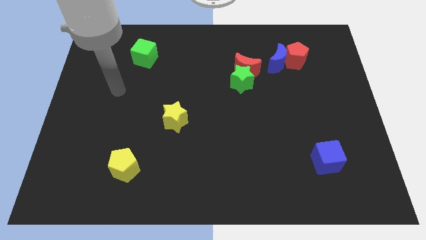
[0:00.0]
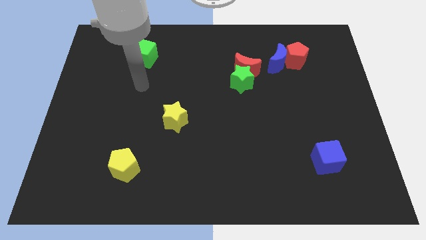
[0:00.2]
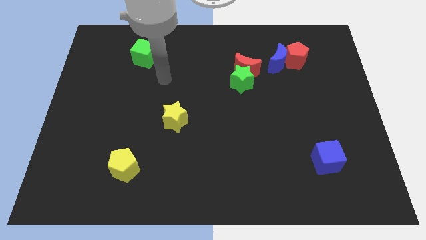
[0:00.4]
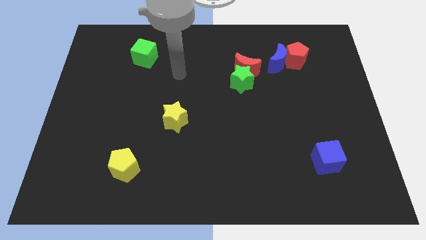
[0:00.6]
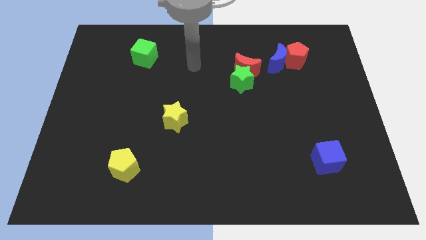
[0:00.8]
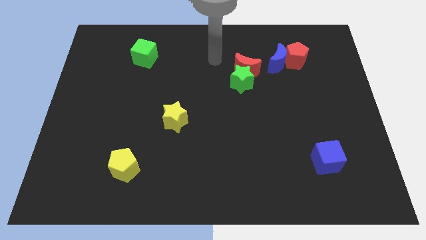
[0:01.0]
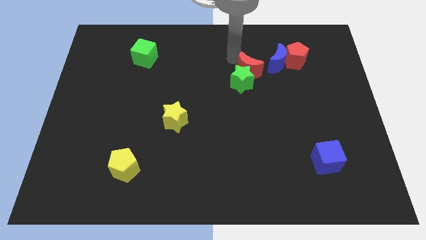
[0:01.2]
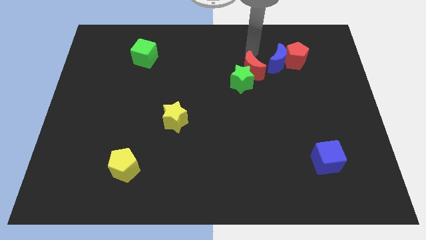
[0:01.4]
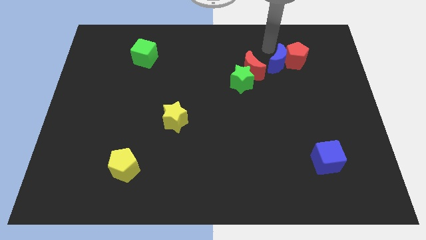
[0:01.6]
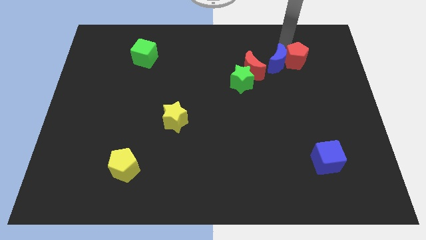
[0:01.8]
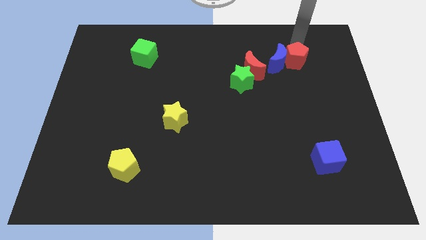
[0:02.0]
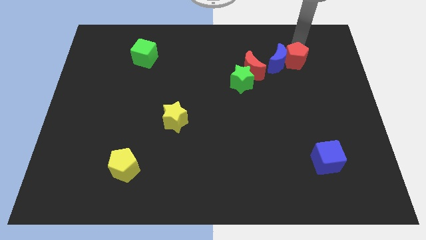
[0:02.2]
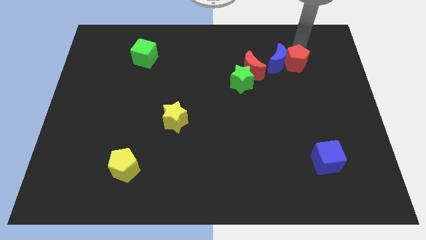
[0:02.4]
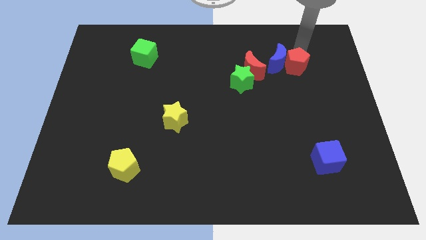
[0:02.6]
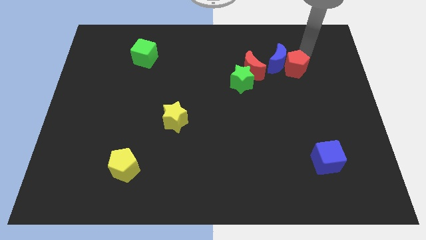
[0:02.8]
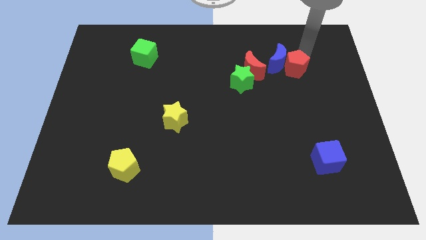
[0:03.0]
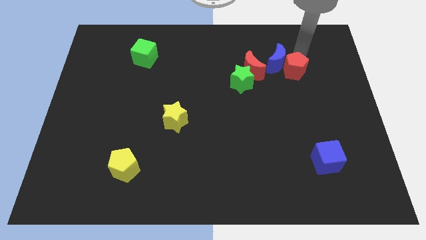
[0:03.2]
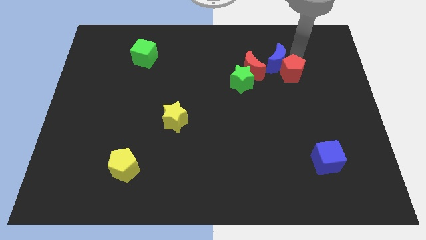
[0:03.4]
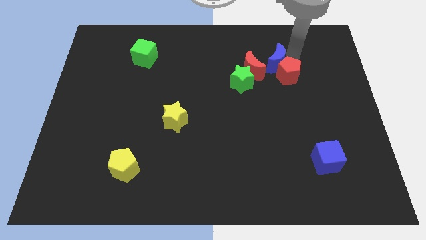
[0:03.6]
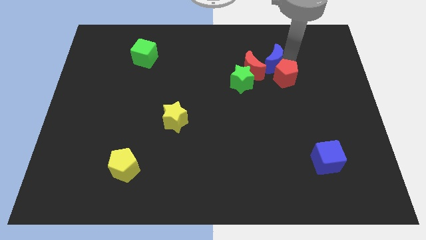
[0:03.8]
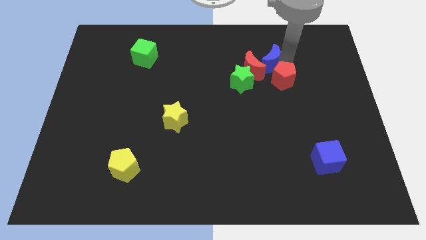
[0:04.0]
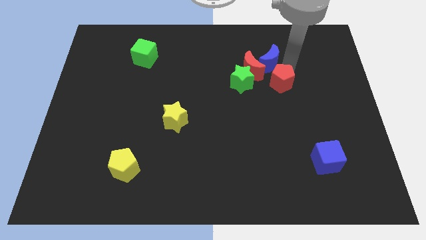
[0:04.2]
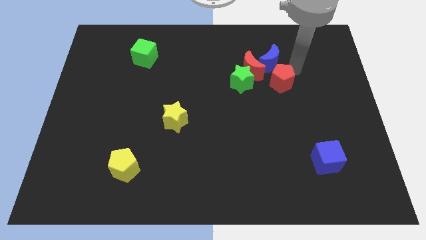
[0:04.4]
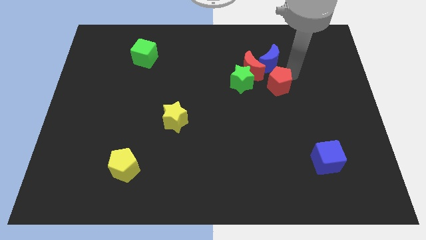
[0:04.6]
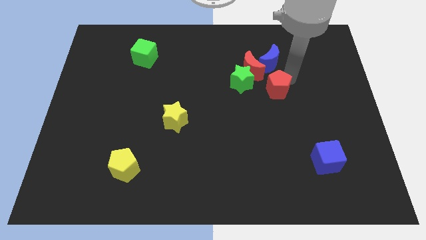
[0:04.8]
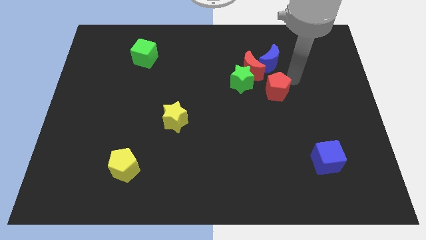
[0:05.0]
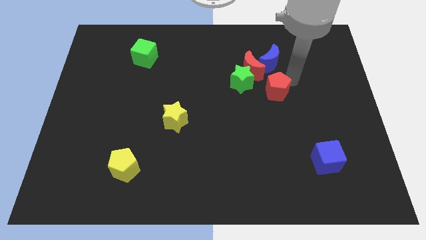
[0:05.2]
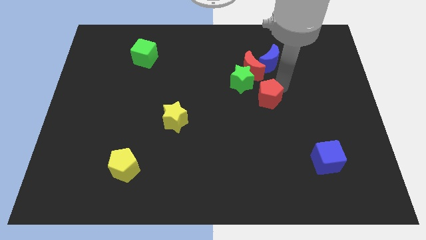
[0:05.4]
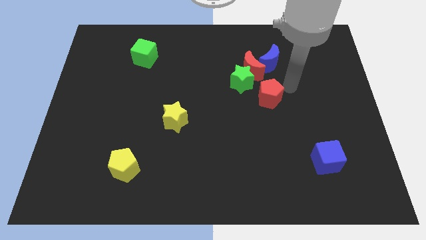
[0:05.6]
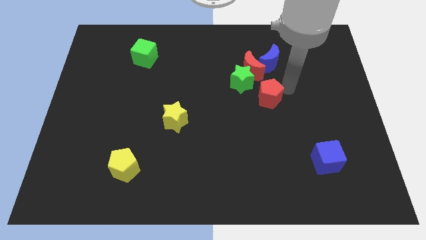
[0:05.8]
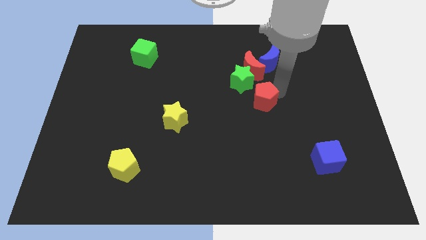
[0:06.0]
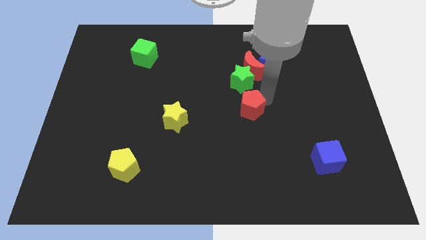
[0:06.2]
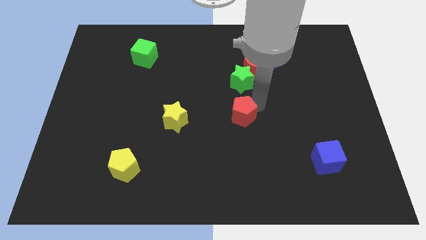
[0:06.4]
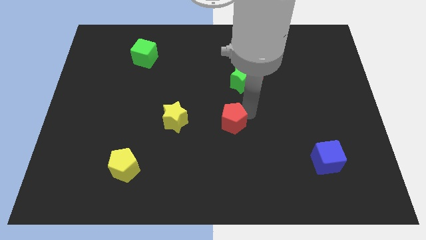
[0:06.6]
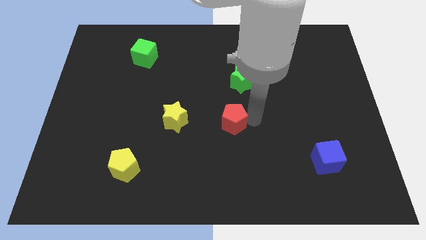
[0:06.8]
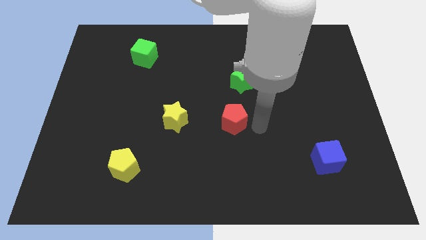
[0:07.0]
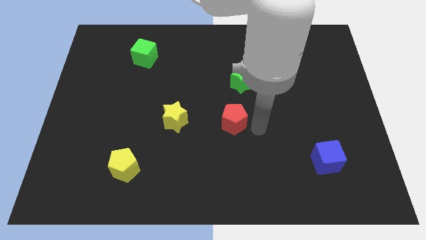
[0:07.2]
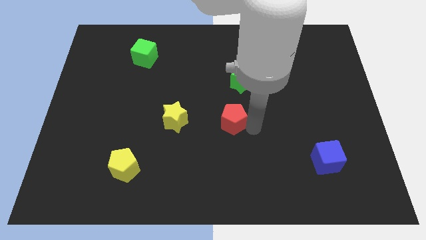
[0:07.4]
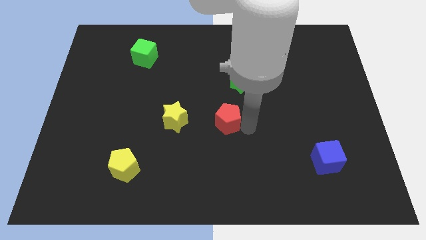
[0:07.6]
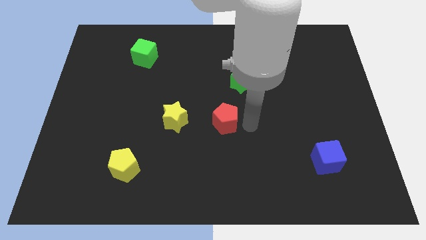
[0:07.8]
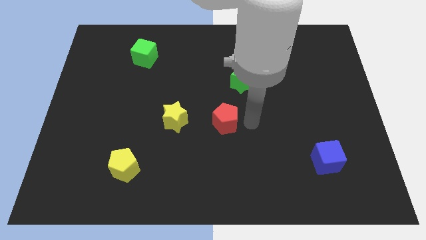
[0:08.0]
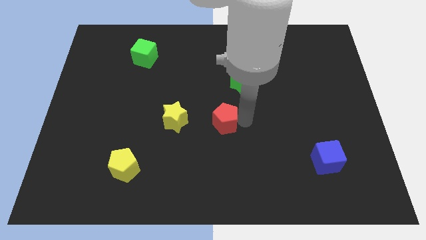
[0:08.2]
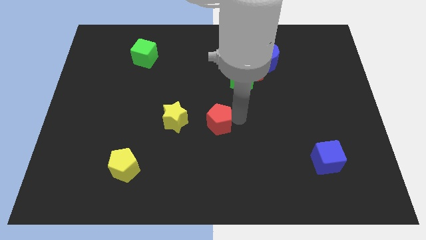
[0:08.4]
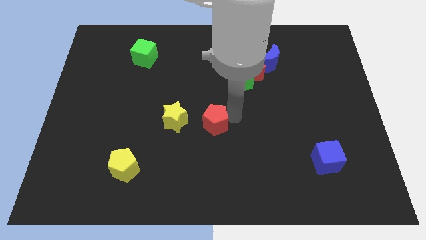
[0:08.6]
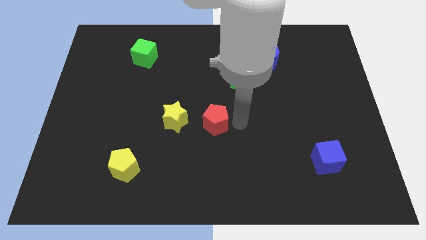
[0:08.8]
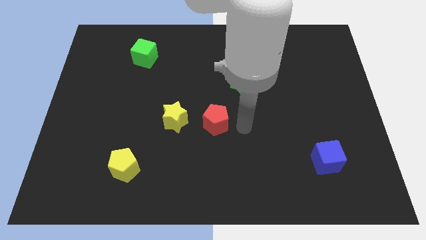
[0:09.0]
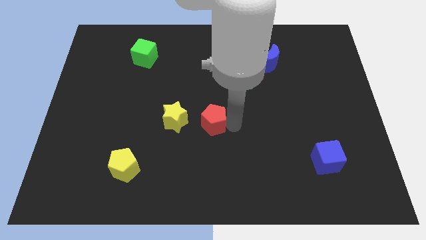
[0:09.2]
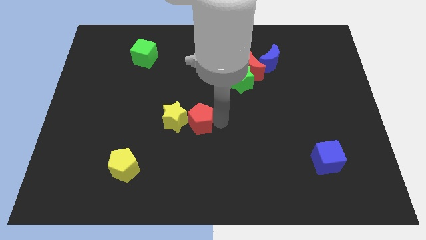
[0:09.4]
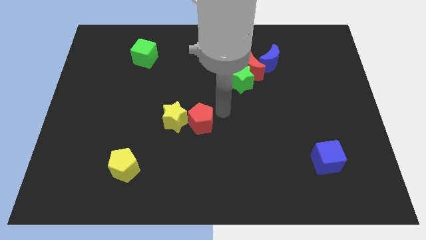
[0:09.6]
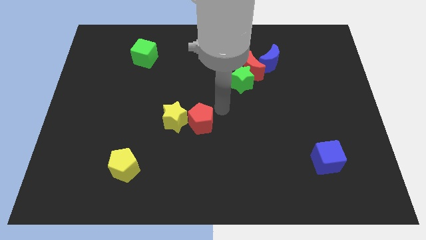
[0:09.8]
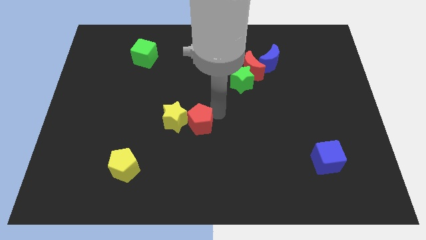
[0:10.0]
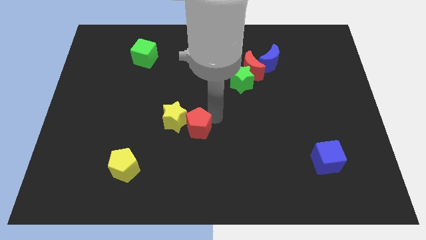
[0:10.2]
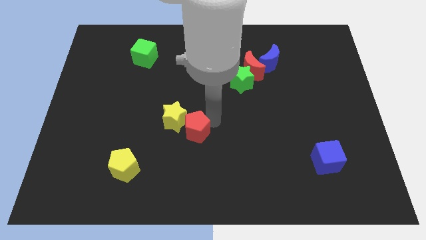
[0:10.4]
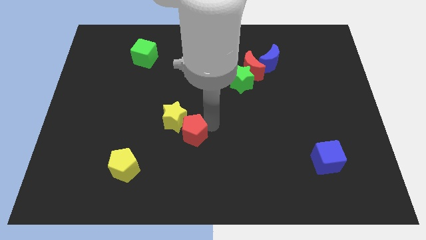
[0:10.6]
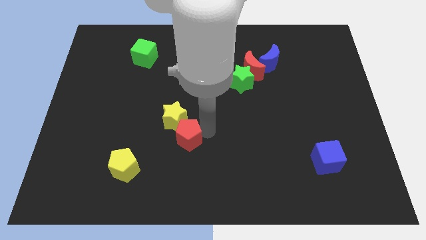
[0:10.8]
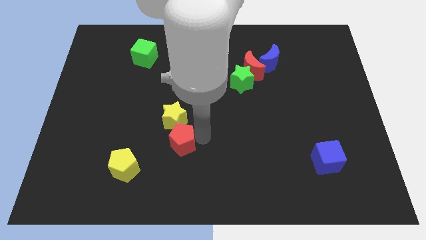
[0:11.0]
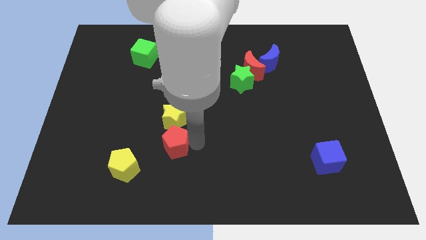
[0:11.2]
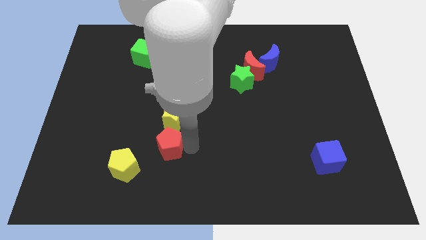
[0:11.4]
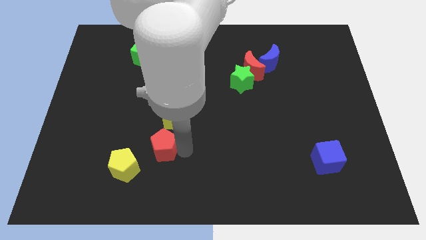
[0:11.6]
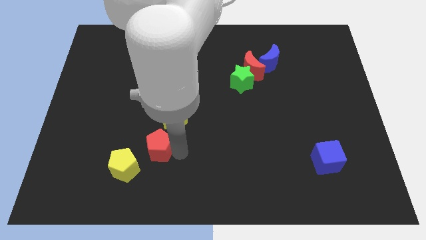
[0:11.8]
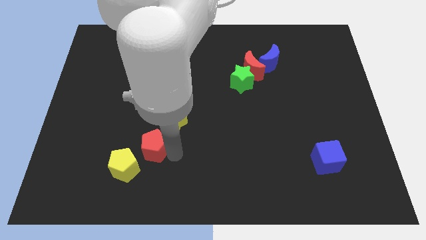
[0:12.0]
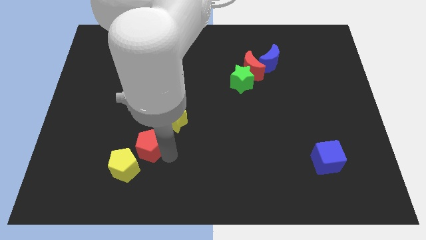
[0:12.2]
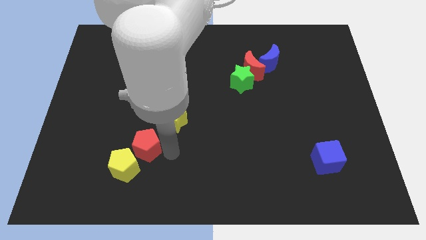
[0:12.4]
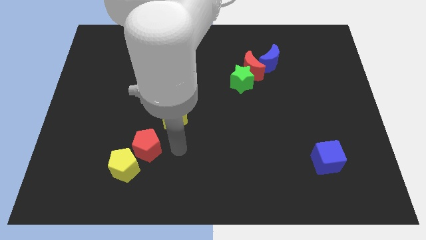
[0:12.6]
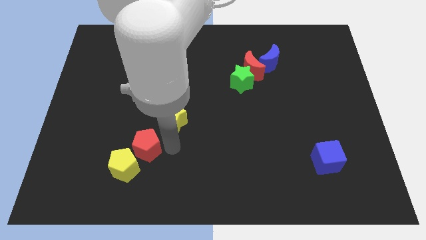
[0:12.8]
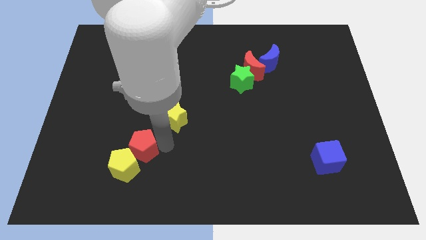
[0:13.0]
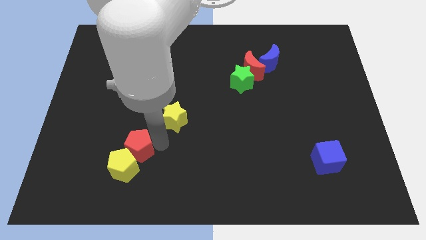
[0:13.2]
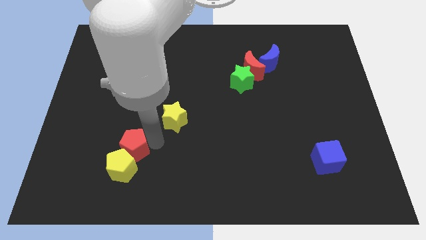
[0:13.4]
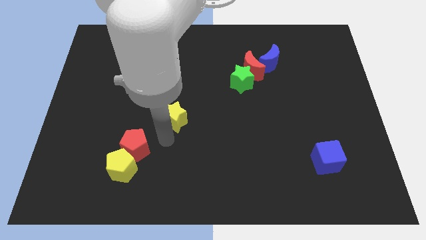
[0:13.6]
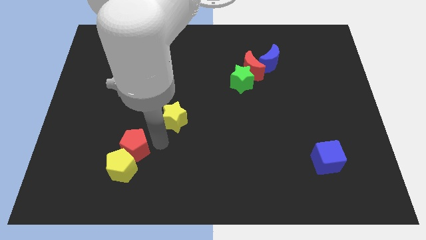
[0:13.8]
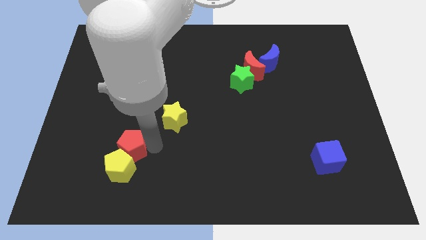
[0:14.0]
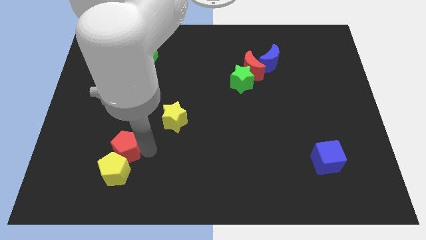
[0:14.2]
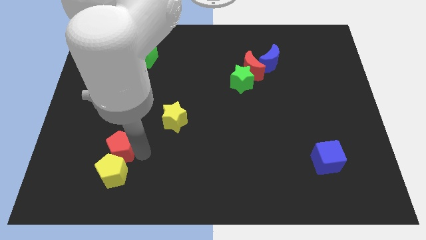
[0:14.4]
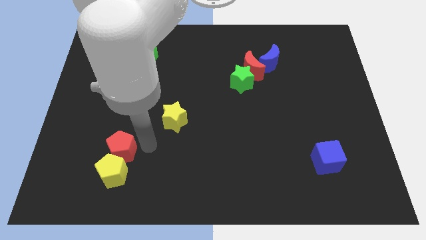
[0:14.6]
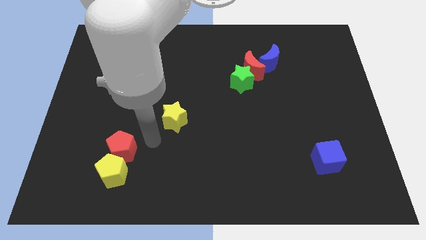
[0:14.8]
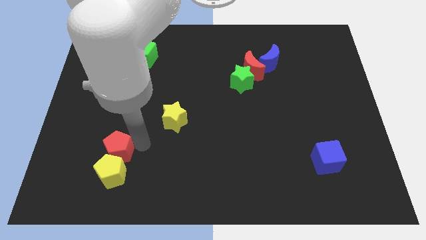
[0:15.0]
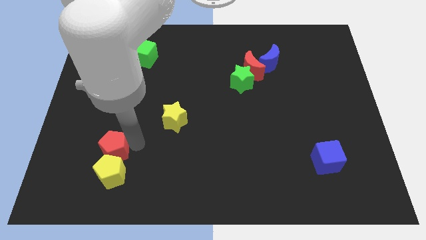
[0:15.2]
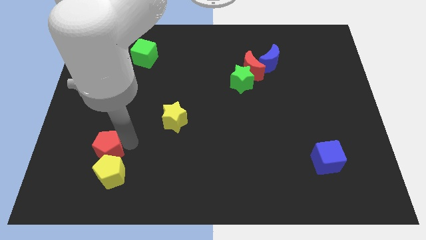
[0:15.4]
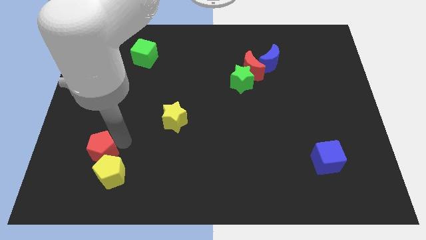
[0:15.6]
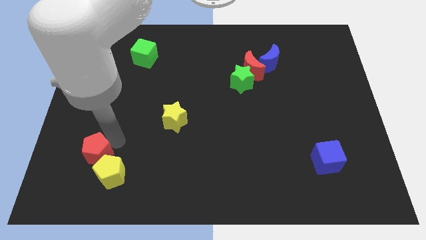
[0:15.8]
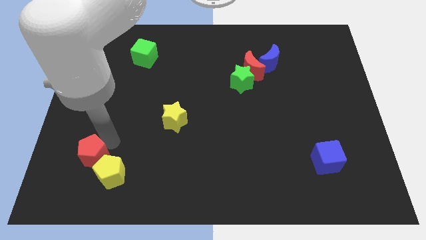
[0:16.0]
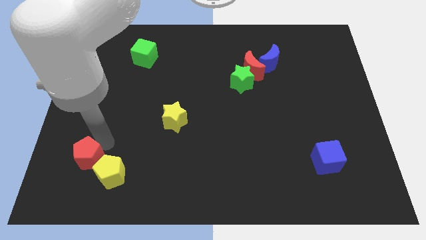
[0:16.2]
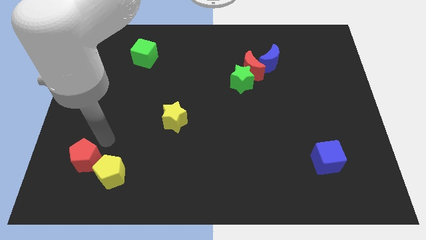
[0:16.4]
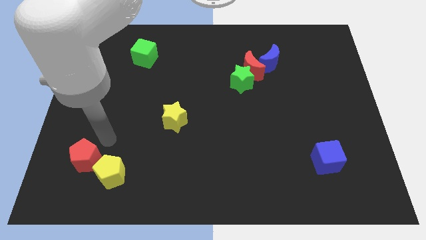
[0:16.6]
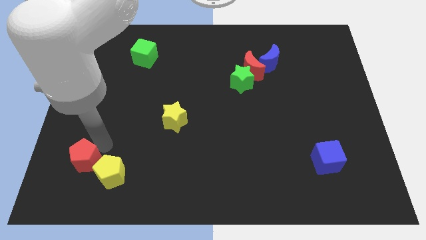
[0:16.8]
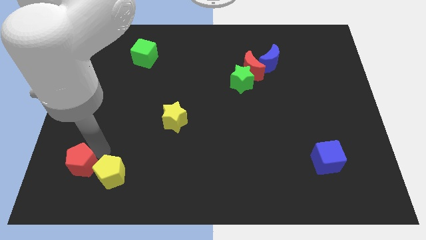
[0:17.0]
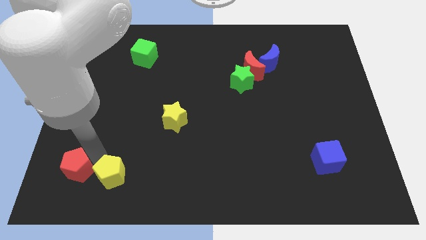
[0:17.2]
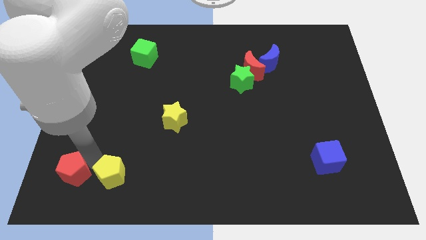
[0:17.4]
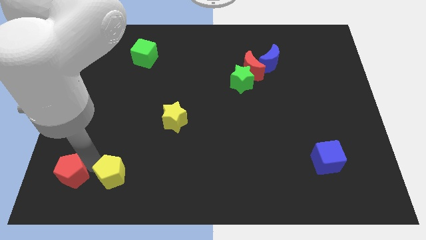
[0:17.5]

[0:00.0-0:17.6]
move the red pentagon to the lower left corner
